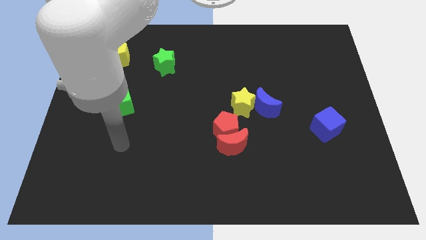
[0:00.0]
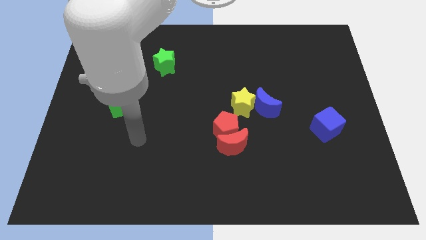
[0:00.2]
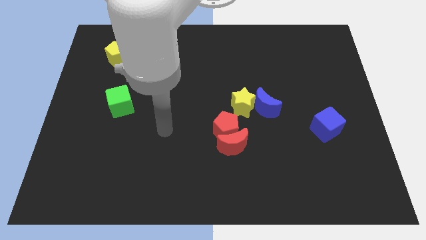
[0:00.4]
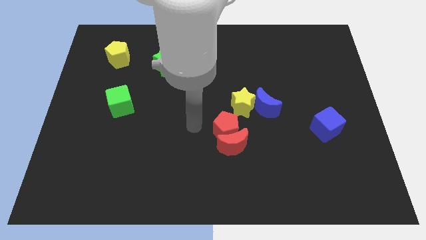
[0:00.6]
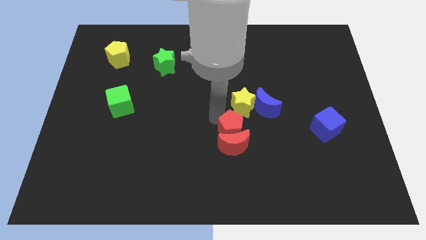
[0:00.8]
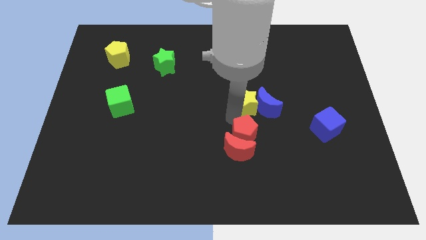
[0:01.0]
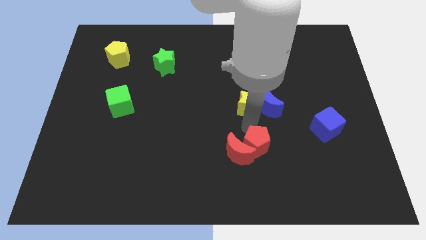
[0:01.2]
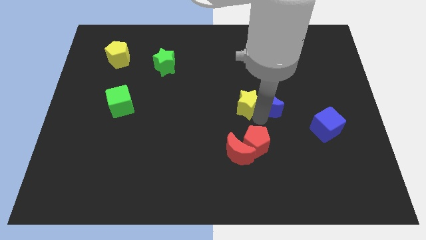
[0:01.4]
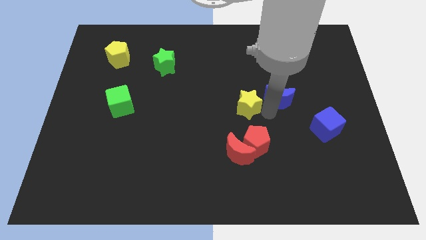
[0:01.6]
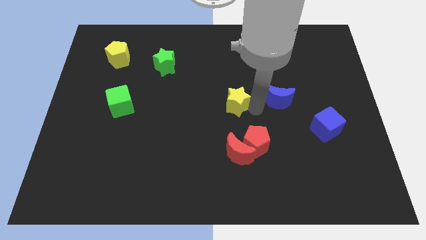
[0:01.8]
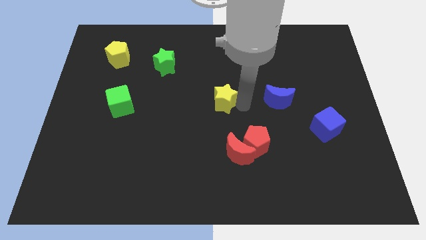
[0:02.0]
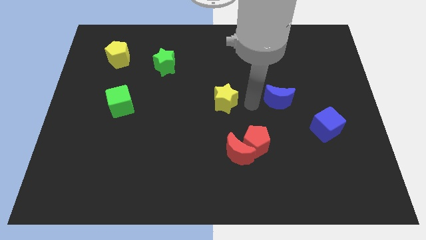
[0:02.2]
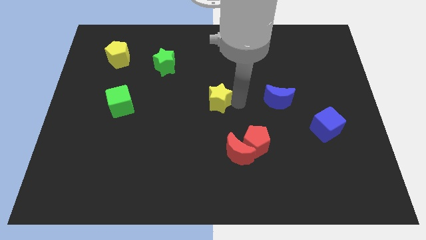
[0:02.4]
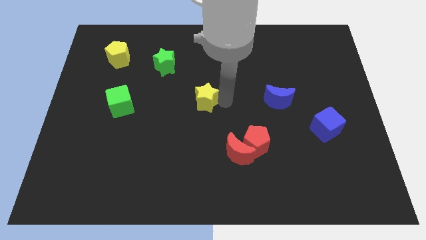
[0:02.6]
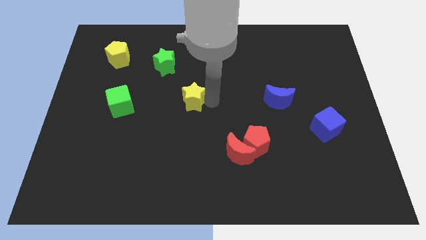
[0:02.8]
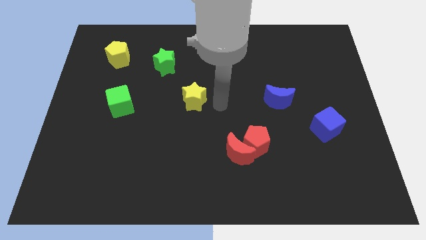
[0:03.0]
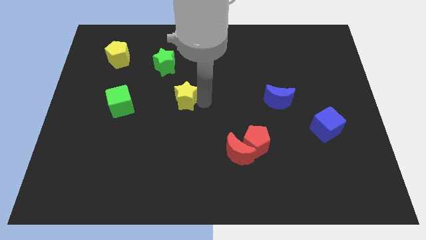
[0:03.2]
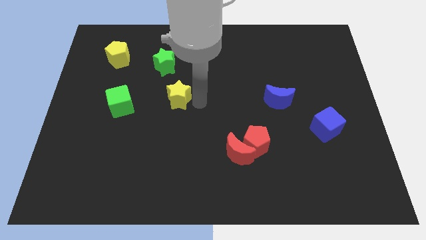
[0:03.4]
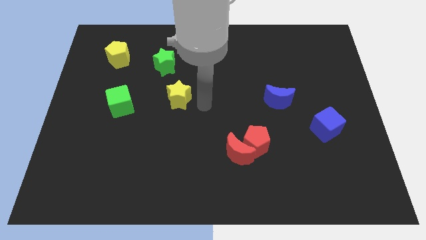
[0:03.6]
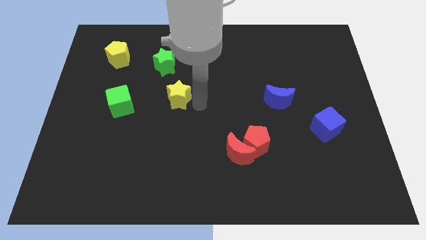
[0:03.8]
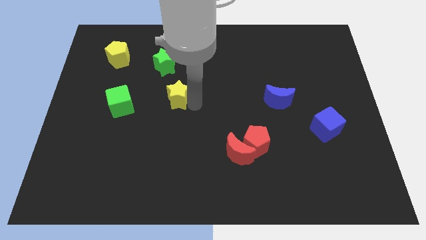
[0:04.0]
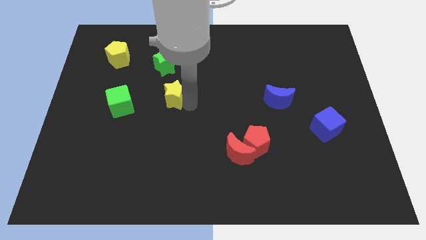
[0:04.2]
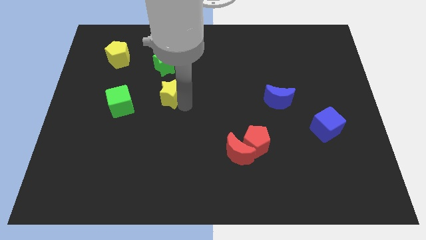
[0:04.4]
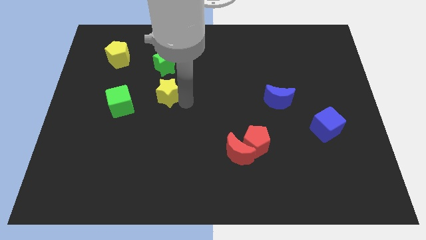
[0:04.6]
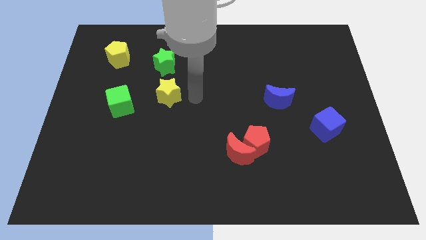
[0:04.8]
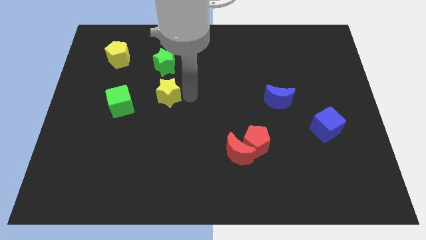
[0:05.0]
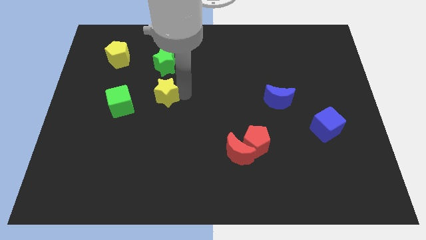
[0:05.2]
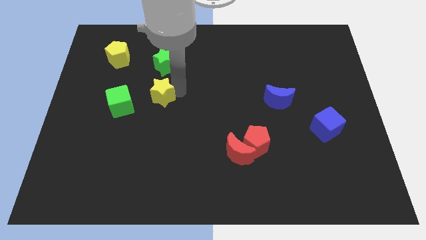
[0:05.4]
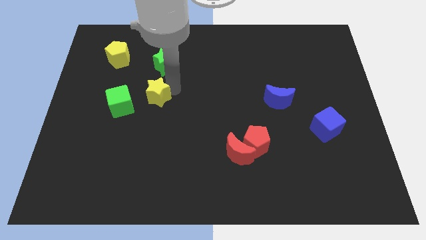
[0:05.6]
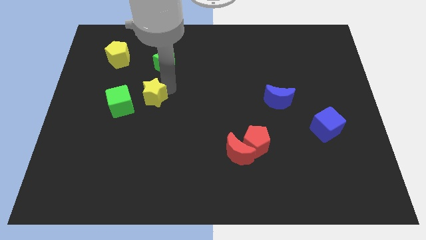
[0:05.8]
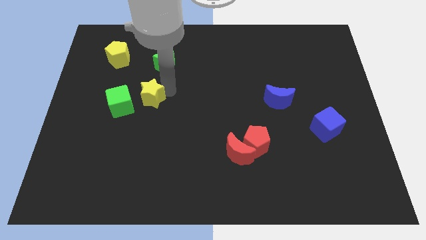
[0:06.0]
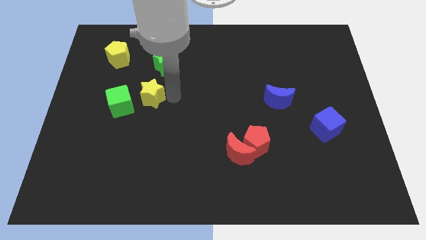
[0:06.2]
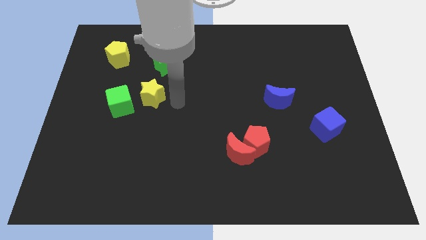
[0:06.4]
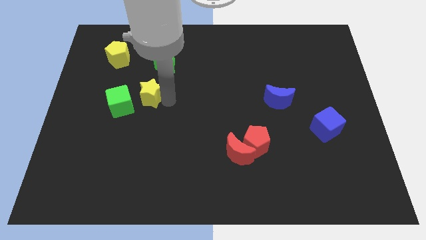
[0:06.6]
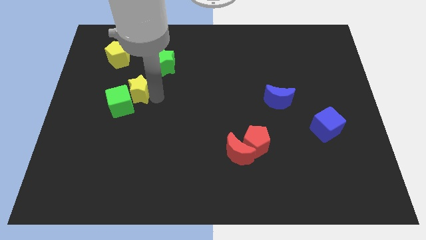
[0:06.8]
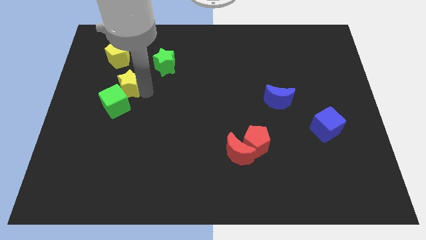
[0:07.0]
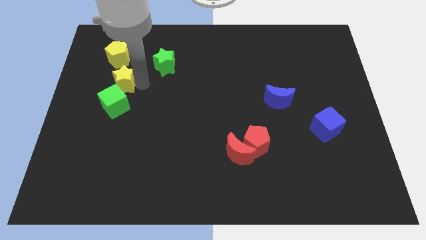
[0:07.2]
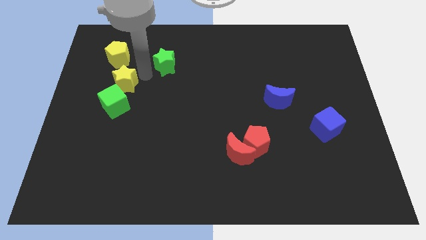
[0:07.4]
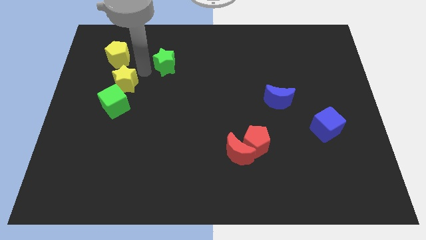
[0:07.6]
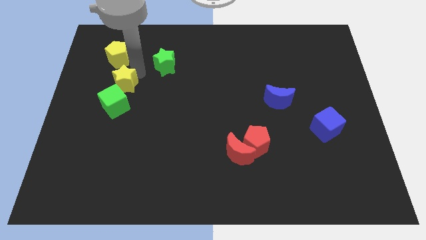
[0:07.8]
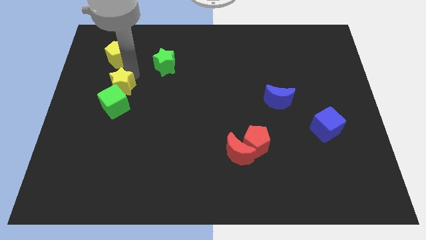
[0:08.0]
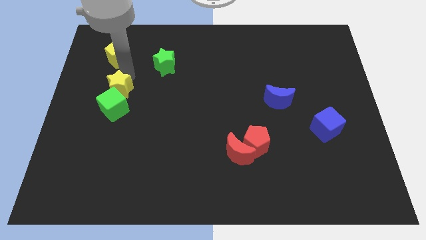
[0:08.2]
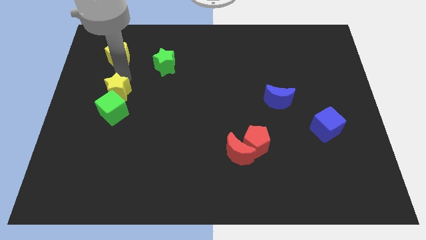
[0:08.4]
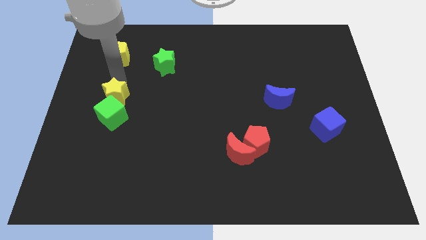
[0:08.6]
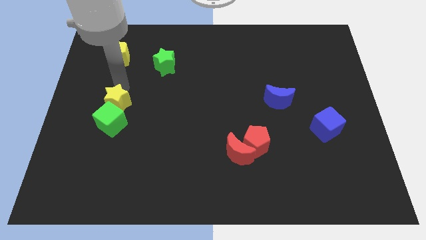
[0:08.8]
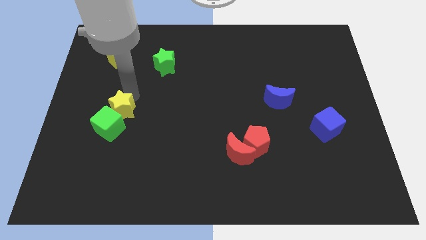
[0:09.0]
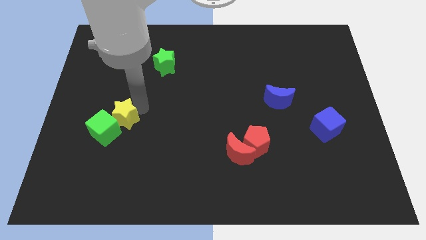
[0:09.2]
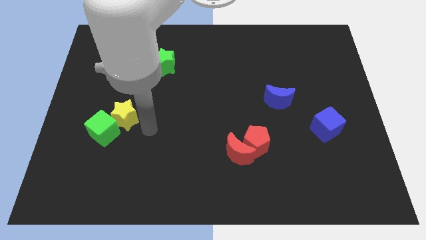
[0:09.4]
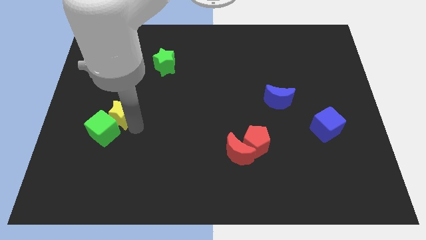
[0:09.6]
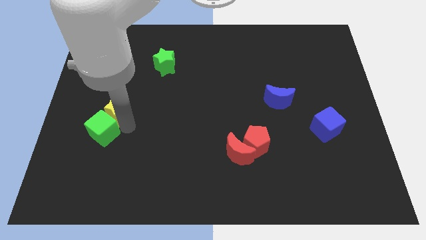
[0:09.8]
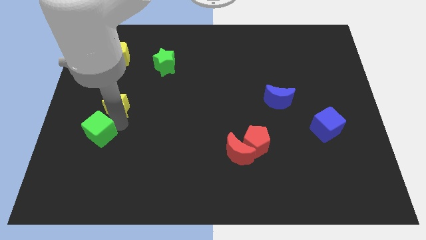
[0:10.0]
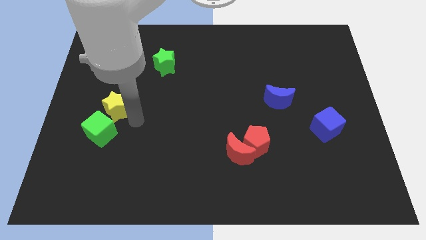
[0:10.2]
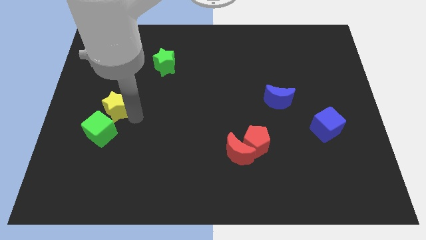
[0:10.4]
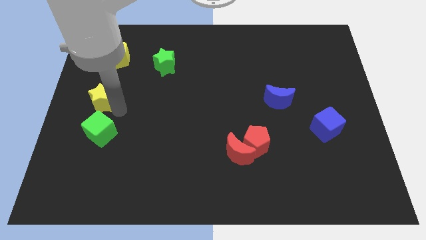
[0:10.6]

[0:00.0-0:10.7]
slide the yellow star to the center left

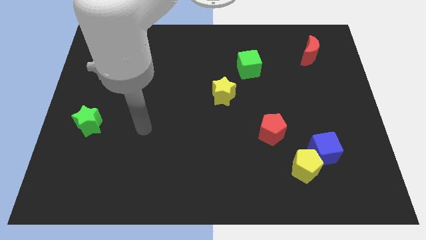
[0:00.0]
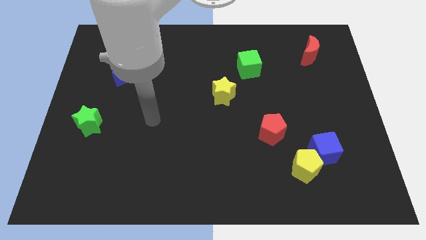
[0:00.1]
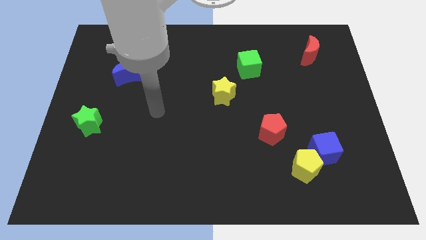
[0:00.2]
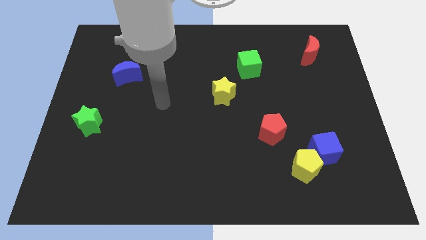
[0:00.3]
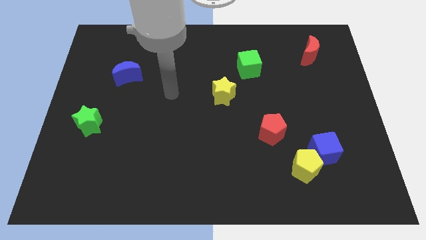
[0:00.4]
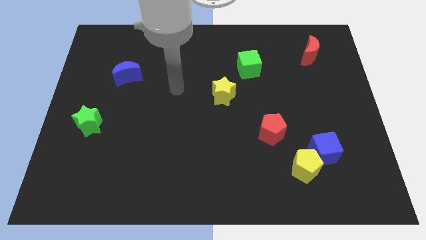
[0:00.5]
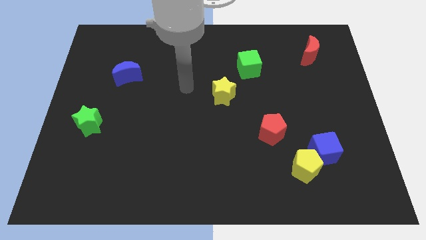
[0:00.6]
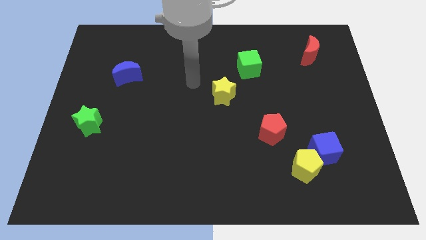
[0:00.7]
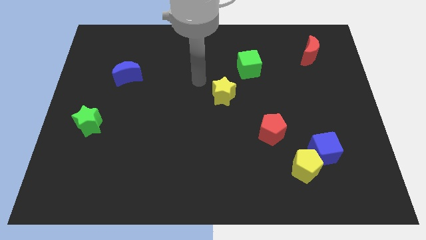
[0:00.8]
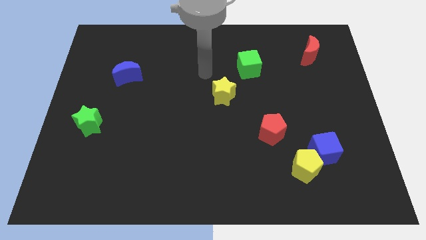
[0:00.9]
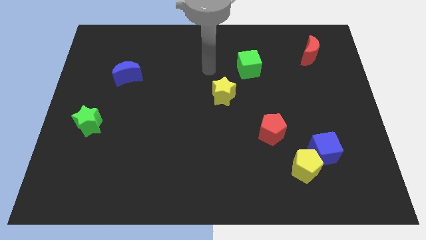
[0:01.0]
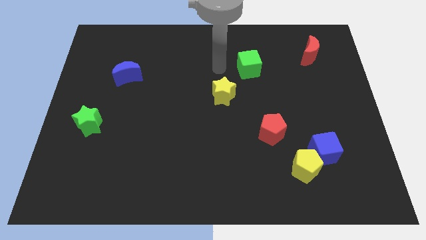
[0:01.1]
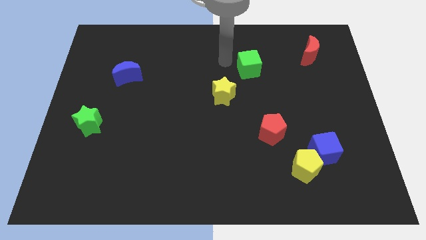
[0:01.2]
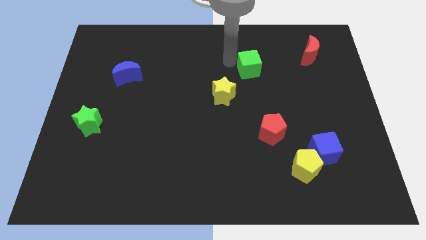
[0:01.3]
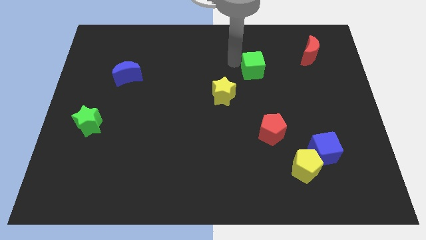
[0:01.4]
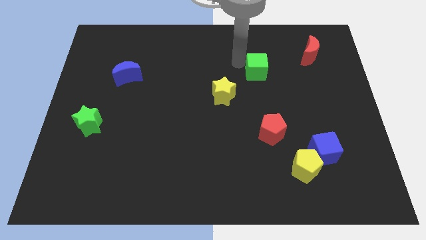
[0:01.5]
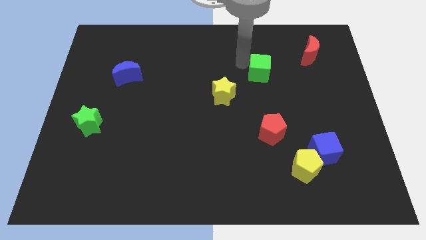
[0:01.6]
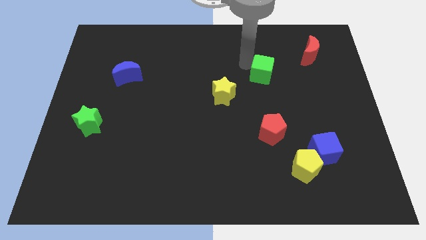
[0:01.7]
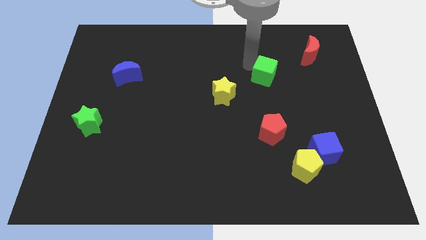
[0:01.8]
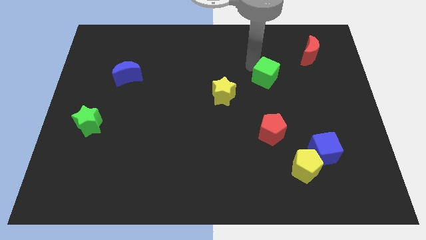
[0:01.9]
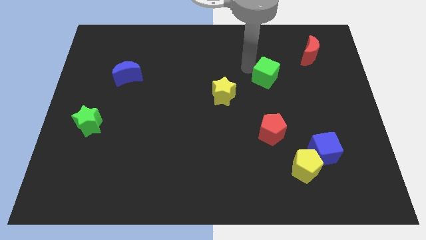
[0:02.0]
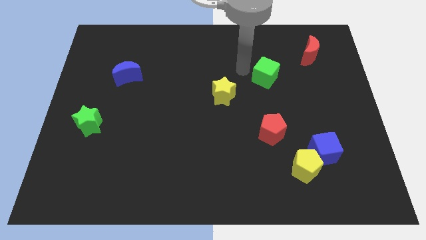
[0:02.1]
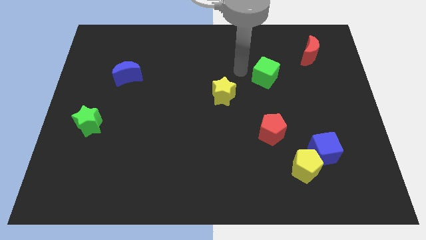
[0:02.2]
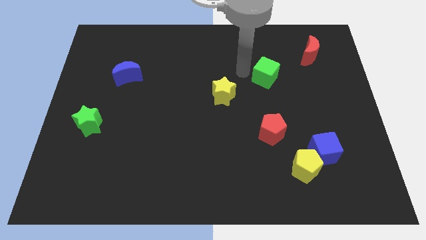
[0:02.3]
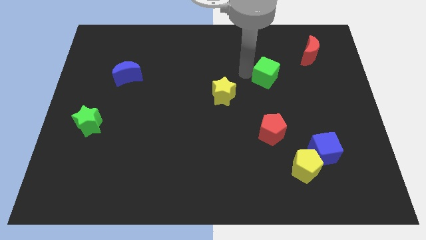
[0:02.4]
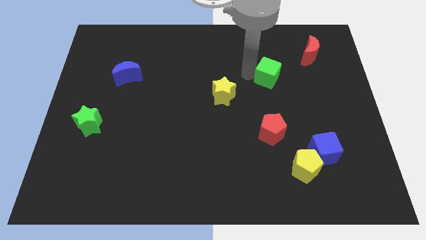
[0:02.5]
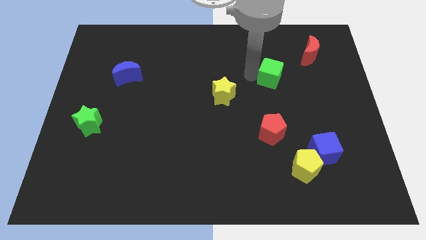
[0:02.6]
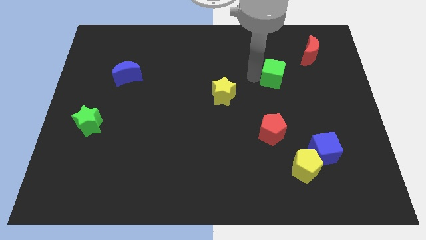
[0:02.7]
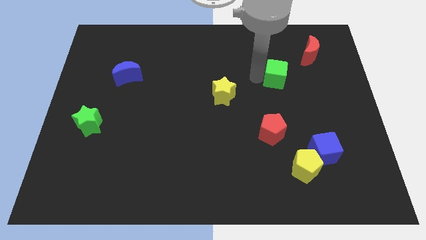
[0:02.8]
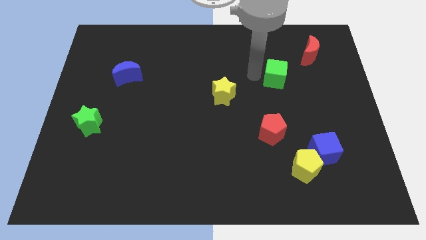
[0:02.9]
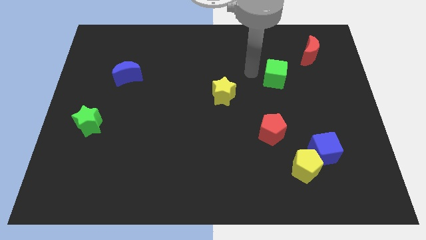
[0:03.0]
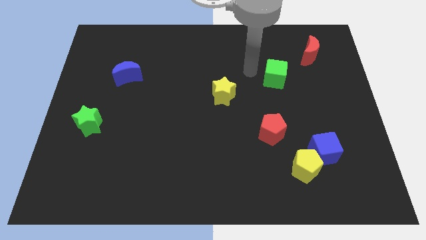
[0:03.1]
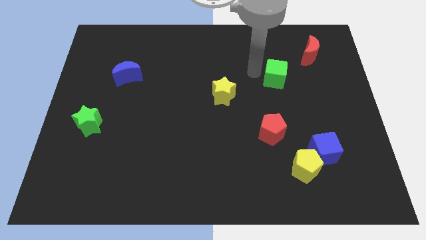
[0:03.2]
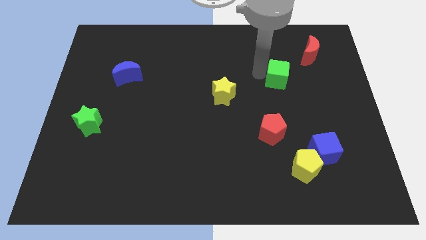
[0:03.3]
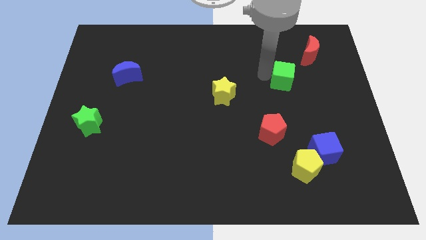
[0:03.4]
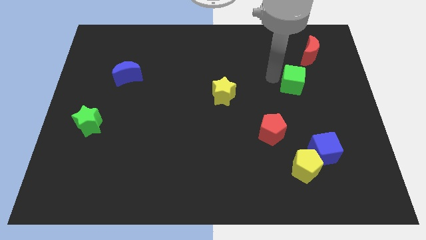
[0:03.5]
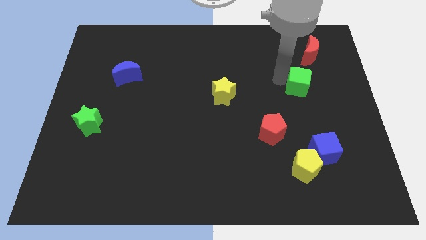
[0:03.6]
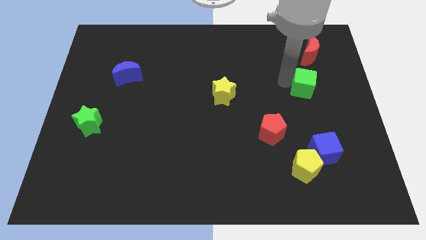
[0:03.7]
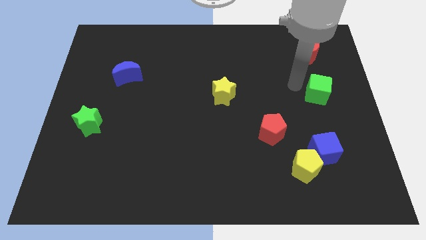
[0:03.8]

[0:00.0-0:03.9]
push the green cube to the right side
